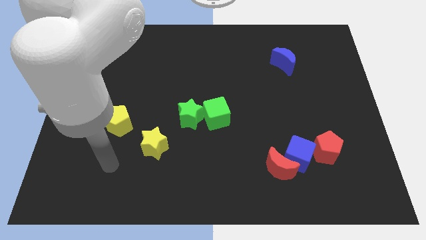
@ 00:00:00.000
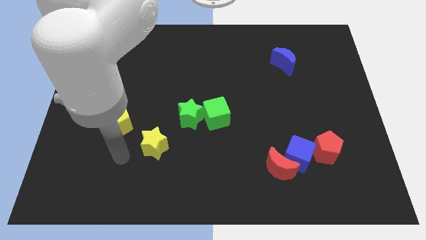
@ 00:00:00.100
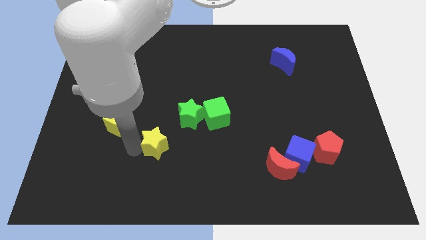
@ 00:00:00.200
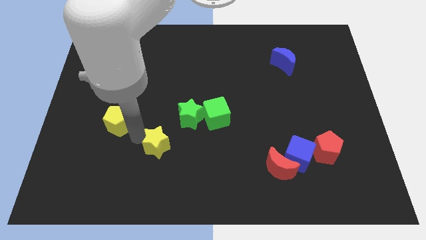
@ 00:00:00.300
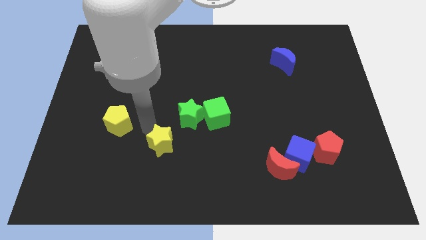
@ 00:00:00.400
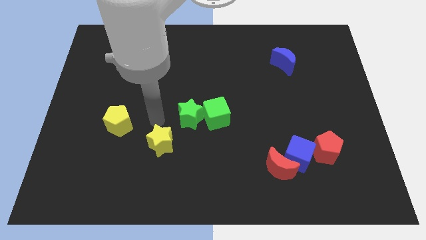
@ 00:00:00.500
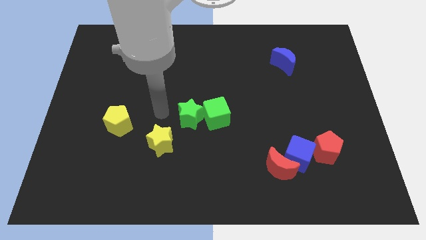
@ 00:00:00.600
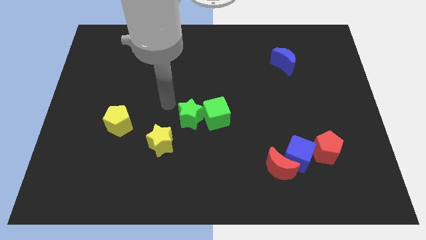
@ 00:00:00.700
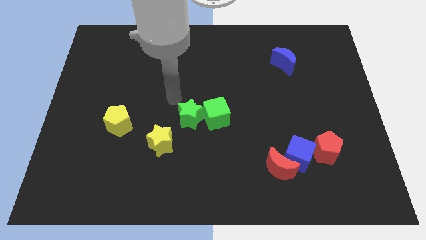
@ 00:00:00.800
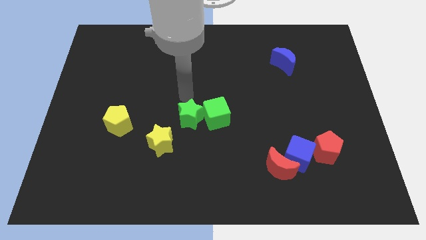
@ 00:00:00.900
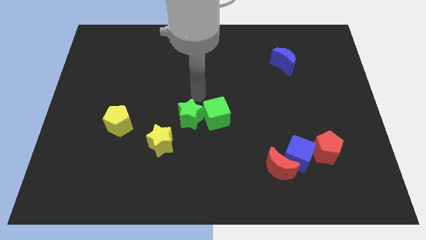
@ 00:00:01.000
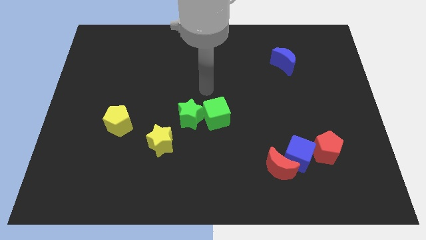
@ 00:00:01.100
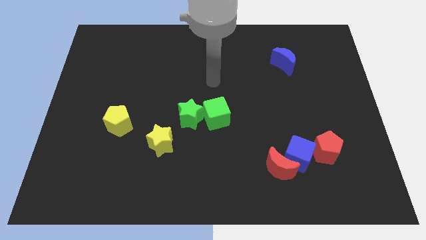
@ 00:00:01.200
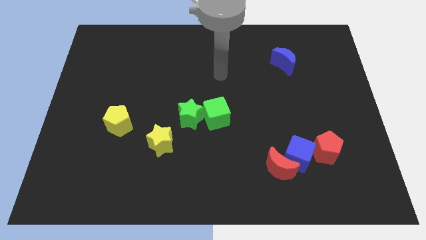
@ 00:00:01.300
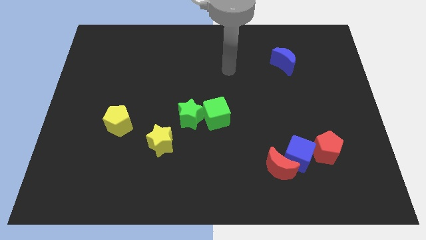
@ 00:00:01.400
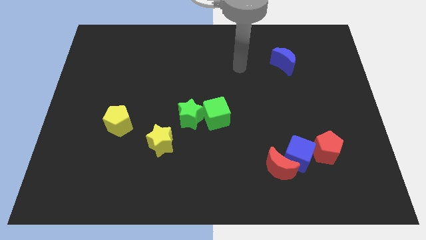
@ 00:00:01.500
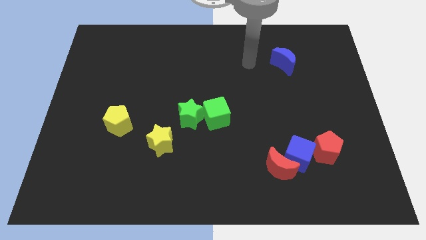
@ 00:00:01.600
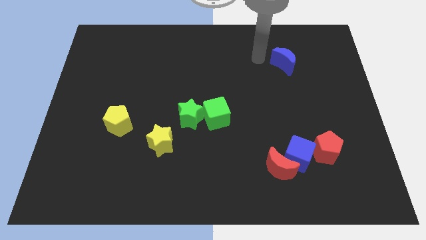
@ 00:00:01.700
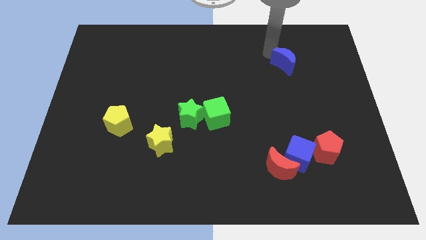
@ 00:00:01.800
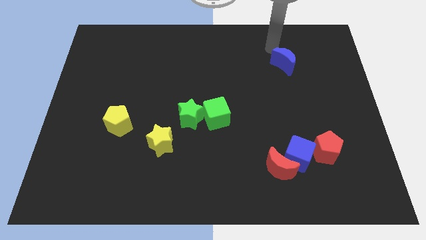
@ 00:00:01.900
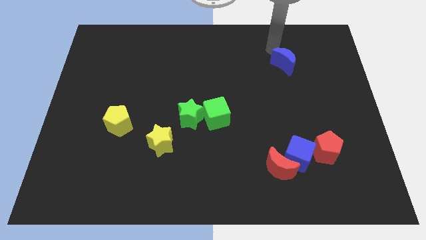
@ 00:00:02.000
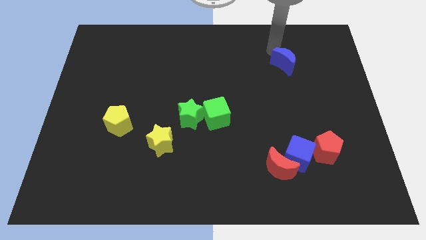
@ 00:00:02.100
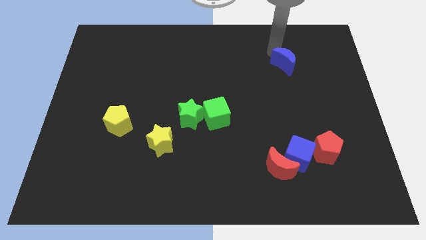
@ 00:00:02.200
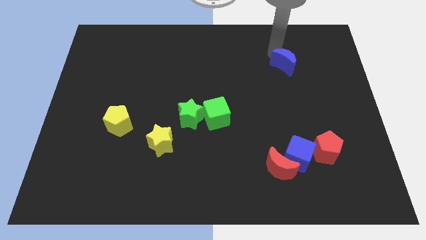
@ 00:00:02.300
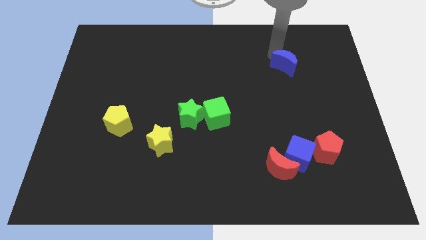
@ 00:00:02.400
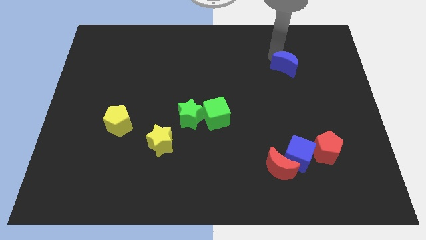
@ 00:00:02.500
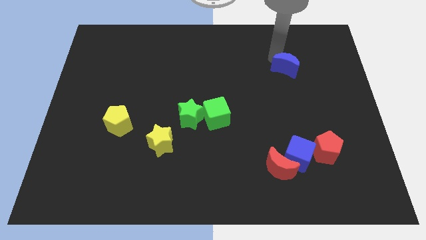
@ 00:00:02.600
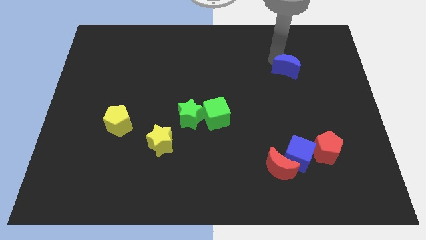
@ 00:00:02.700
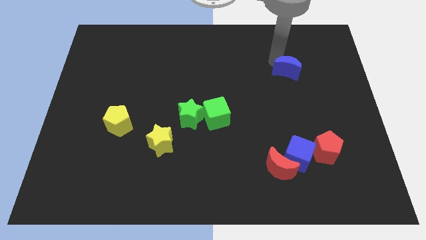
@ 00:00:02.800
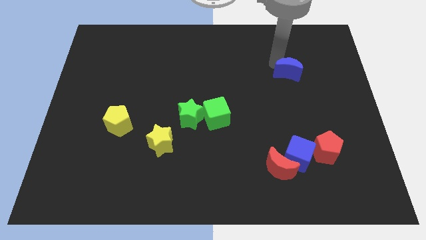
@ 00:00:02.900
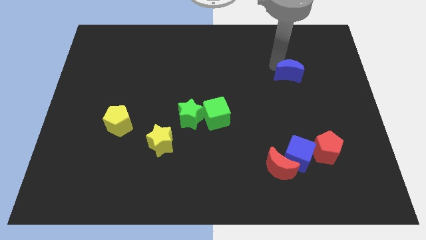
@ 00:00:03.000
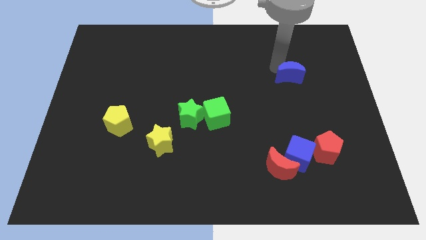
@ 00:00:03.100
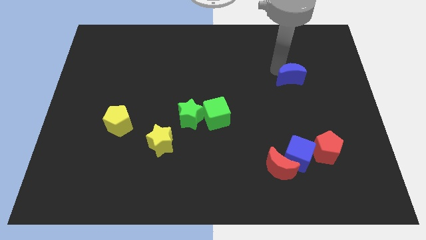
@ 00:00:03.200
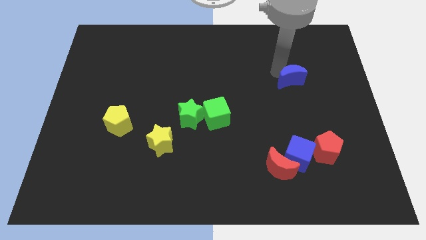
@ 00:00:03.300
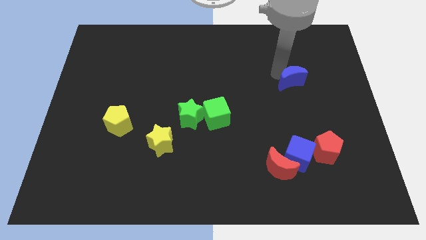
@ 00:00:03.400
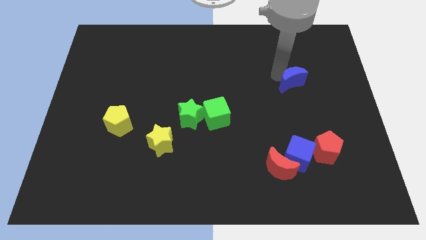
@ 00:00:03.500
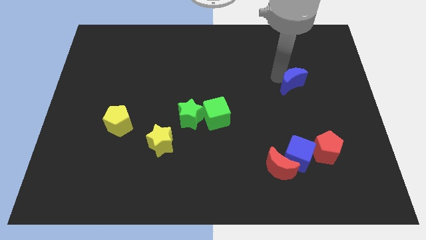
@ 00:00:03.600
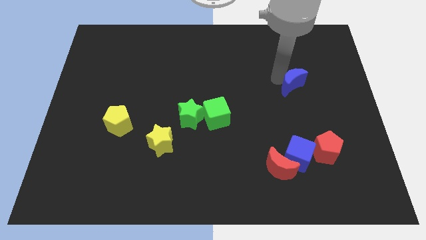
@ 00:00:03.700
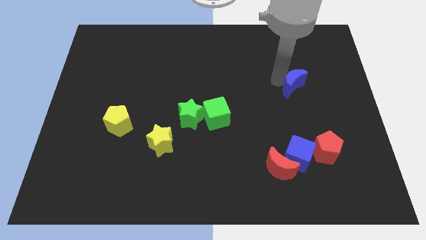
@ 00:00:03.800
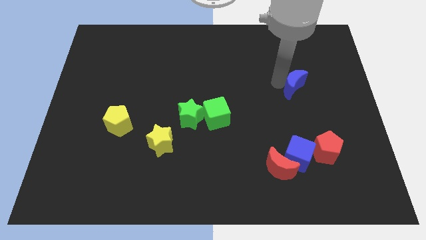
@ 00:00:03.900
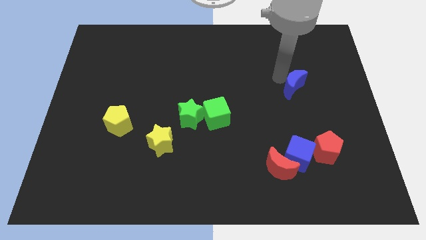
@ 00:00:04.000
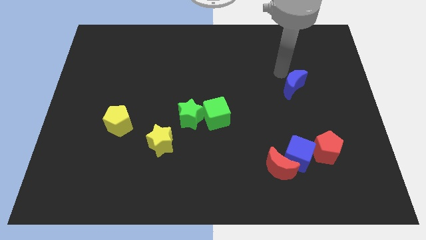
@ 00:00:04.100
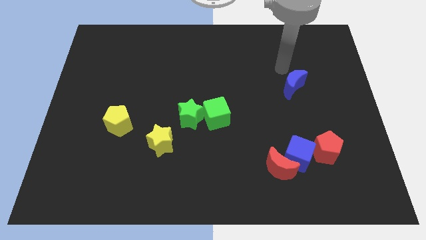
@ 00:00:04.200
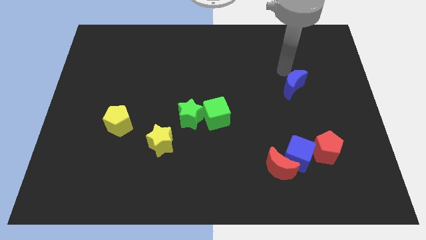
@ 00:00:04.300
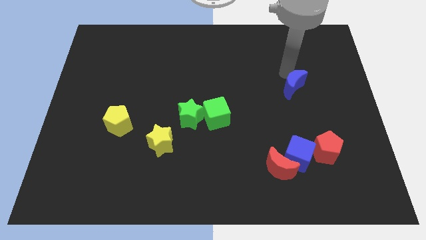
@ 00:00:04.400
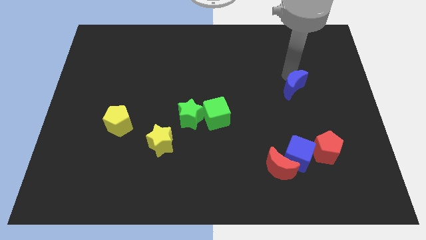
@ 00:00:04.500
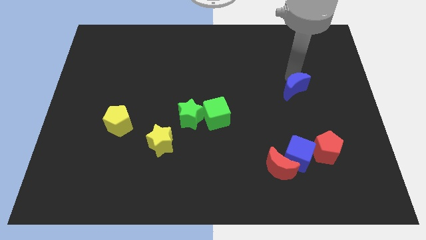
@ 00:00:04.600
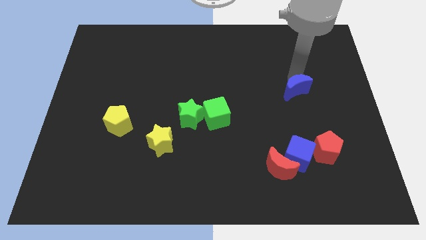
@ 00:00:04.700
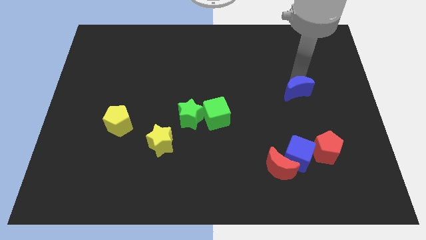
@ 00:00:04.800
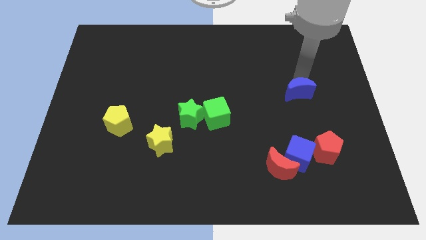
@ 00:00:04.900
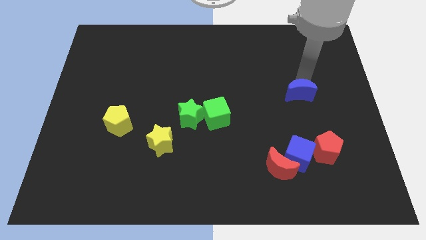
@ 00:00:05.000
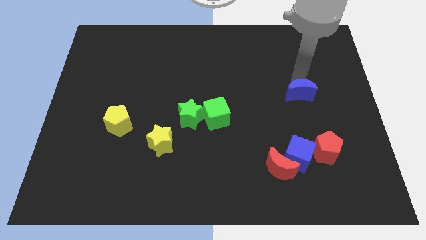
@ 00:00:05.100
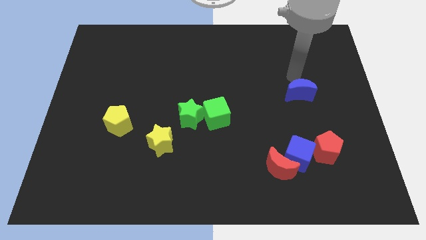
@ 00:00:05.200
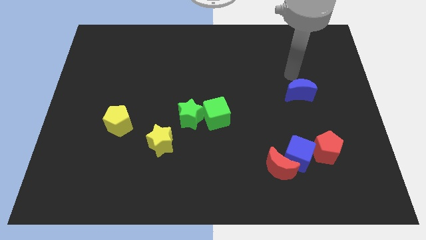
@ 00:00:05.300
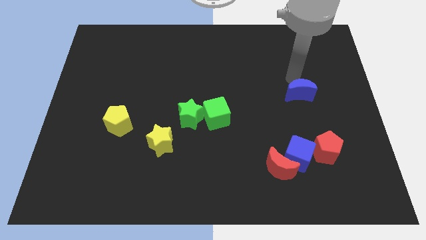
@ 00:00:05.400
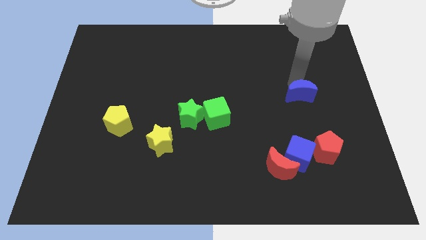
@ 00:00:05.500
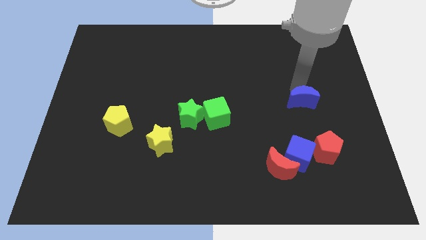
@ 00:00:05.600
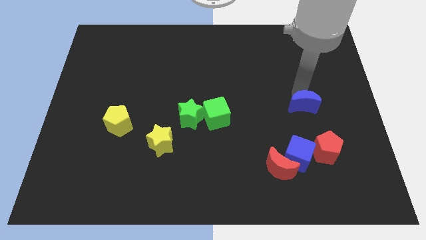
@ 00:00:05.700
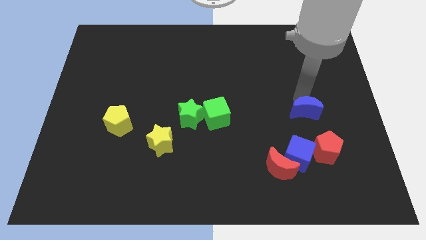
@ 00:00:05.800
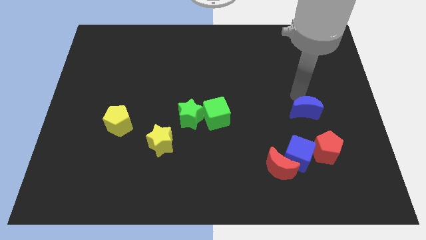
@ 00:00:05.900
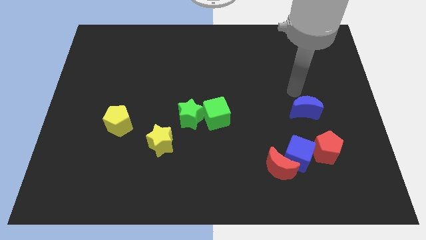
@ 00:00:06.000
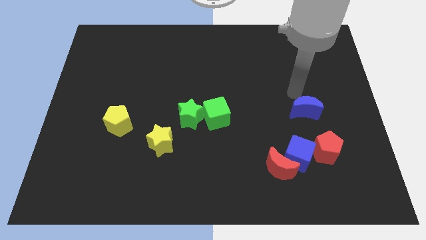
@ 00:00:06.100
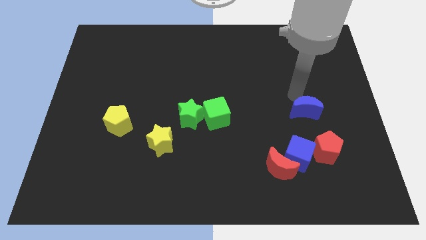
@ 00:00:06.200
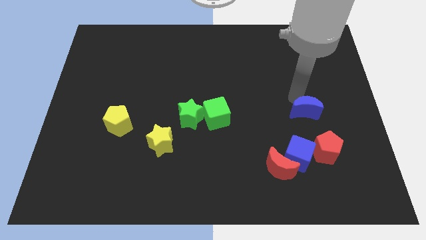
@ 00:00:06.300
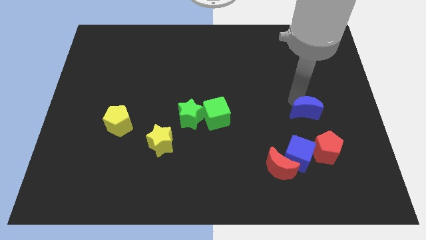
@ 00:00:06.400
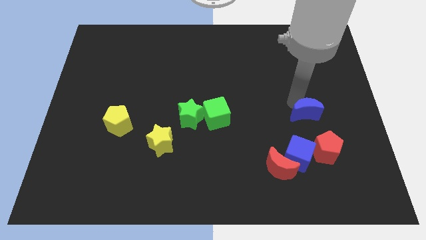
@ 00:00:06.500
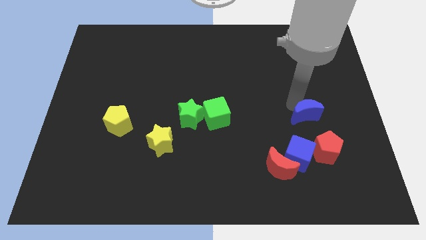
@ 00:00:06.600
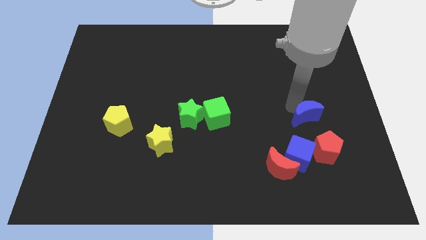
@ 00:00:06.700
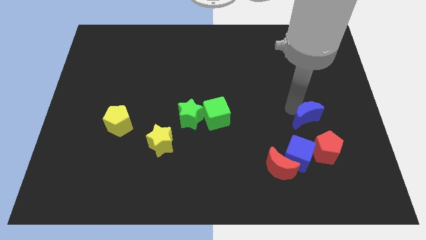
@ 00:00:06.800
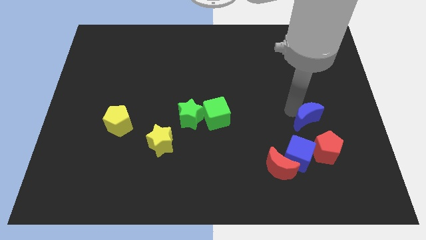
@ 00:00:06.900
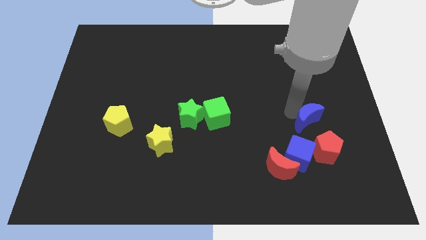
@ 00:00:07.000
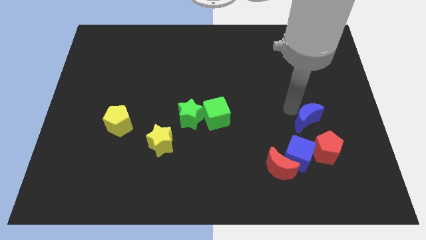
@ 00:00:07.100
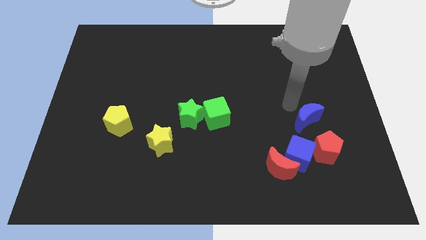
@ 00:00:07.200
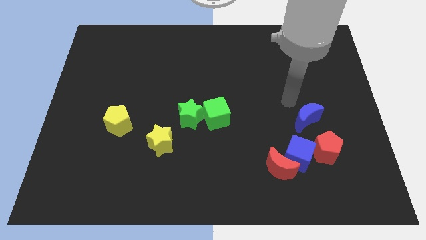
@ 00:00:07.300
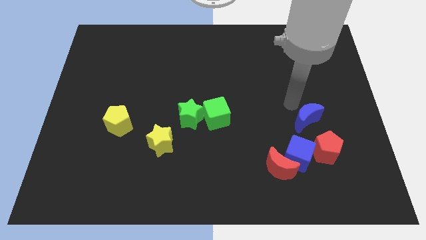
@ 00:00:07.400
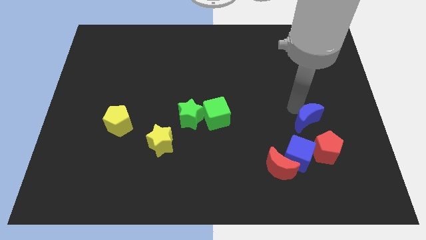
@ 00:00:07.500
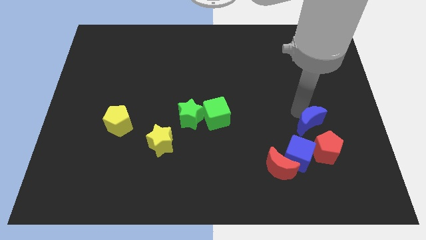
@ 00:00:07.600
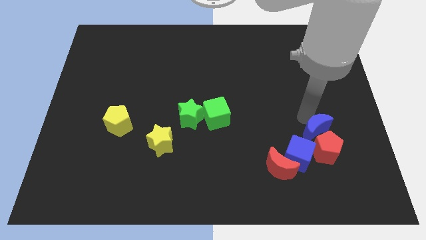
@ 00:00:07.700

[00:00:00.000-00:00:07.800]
move the blue moon to the red pentagon
